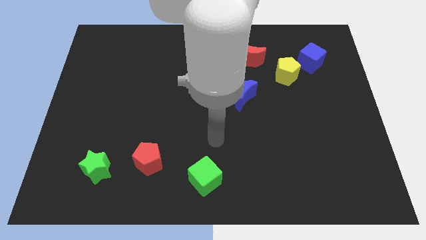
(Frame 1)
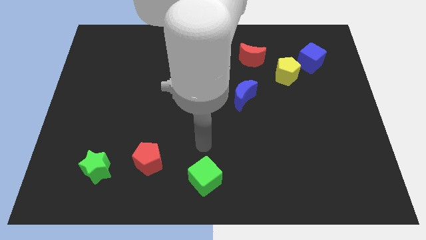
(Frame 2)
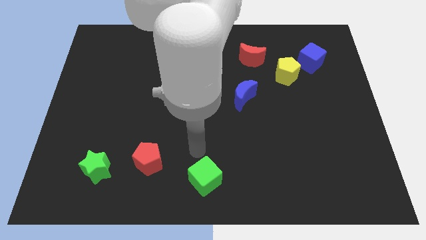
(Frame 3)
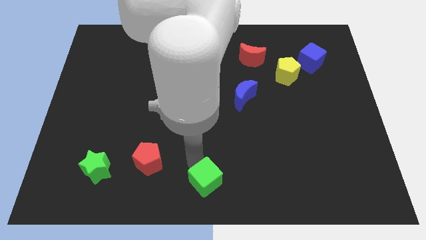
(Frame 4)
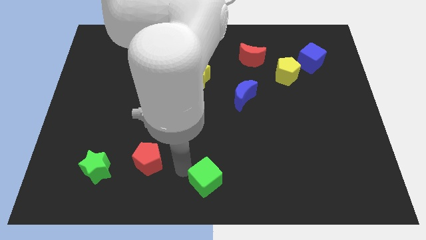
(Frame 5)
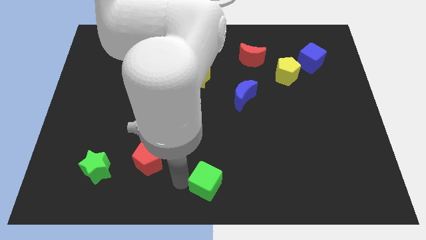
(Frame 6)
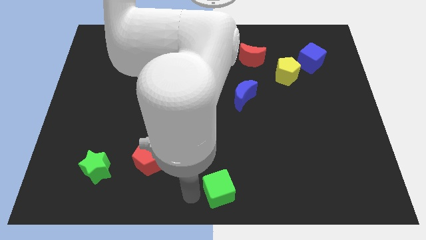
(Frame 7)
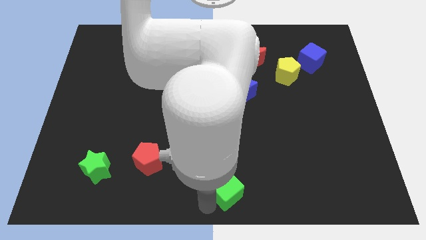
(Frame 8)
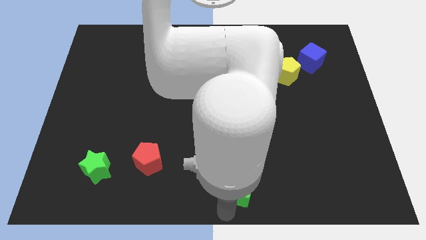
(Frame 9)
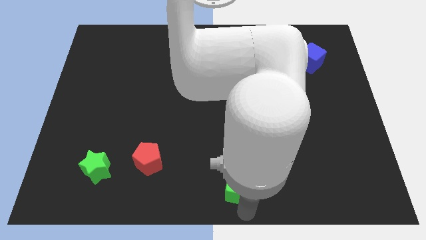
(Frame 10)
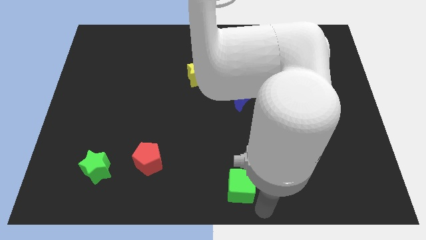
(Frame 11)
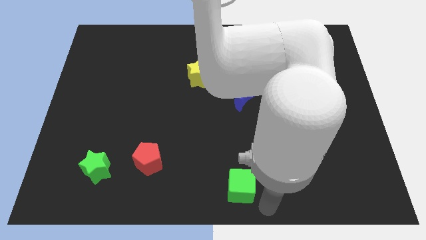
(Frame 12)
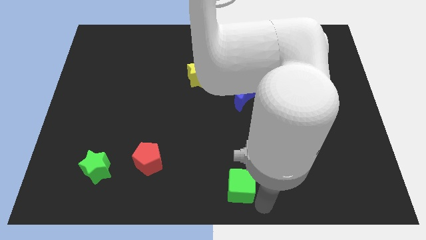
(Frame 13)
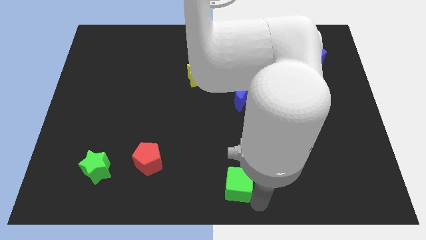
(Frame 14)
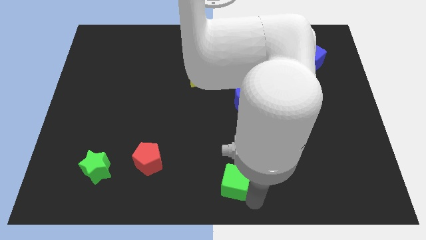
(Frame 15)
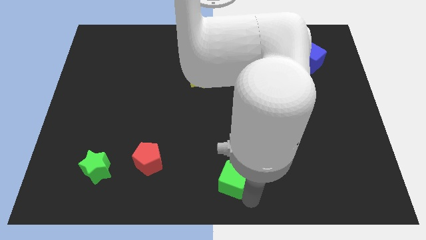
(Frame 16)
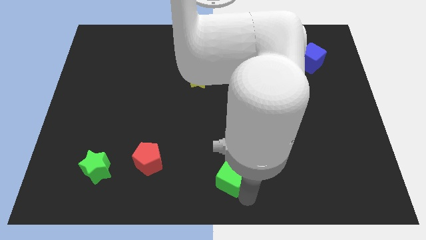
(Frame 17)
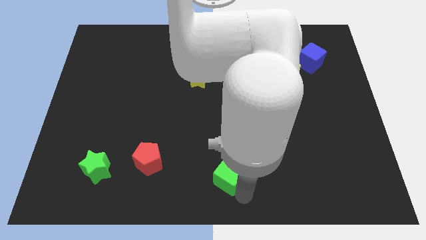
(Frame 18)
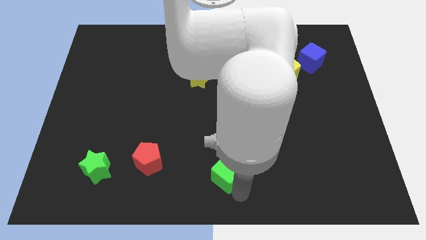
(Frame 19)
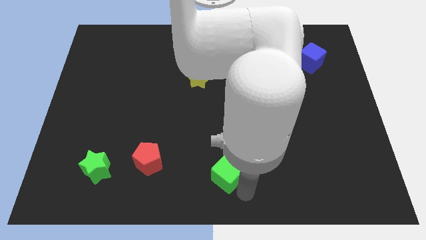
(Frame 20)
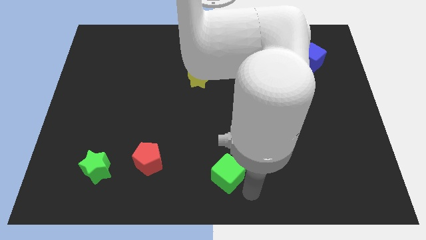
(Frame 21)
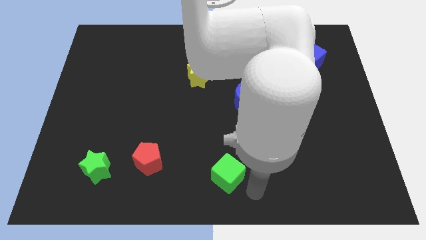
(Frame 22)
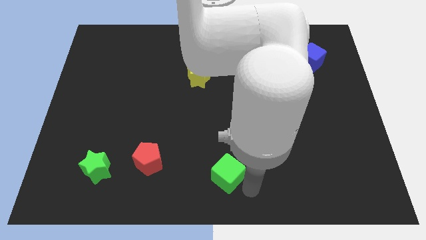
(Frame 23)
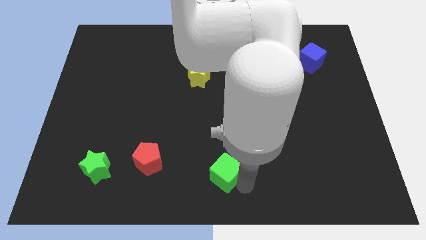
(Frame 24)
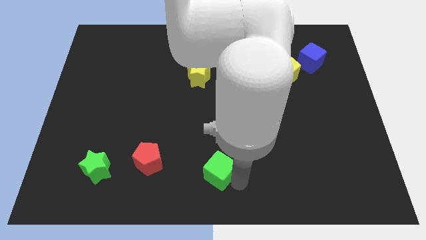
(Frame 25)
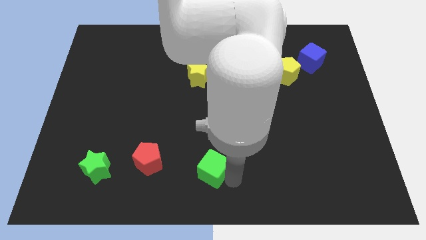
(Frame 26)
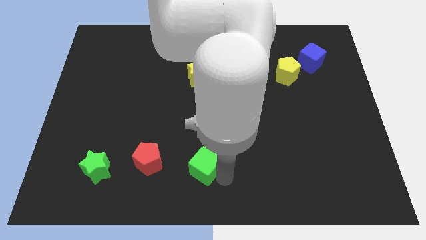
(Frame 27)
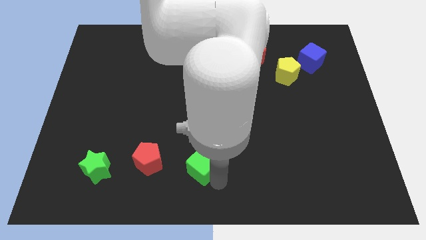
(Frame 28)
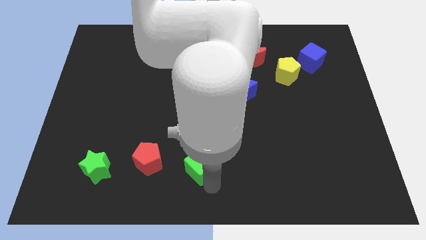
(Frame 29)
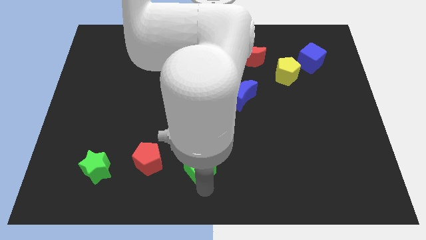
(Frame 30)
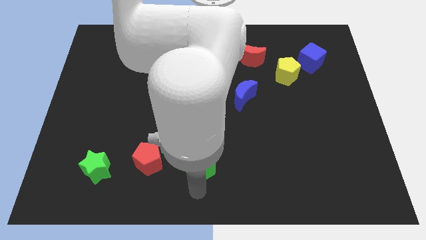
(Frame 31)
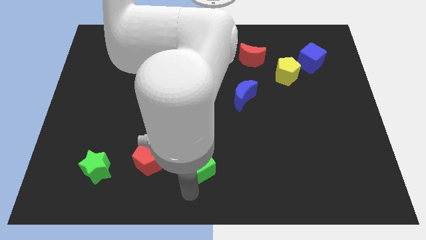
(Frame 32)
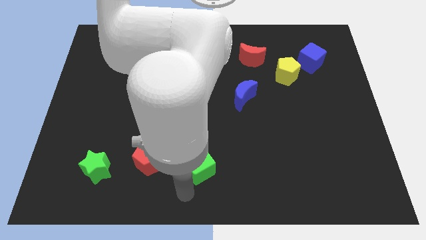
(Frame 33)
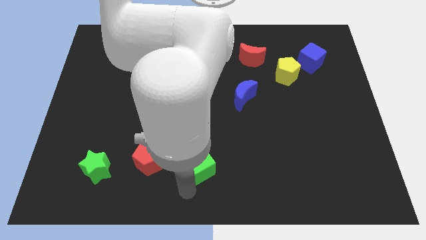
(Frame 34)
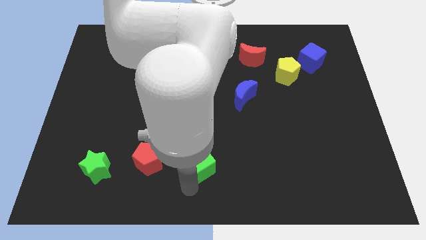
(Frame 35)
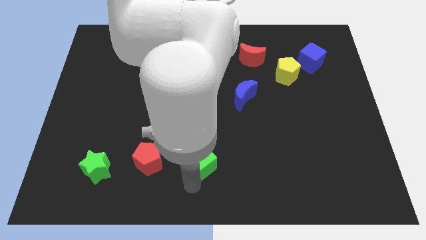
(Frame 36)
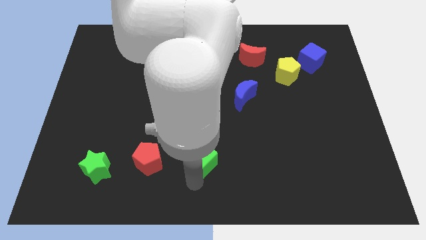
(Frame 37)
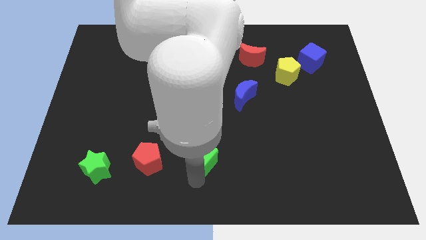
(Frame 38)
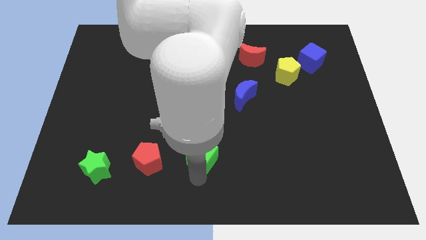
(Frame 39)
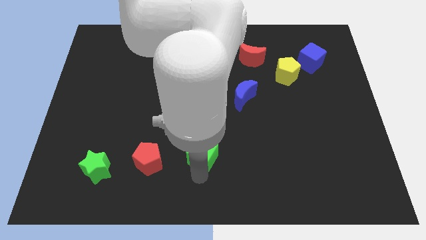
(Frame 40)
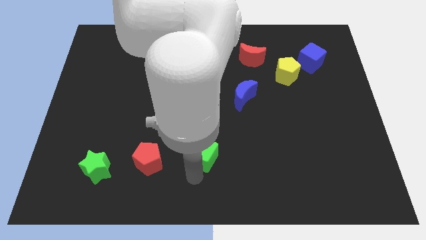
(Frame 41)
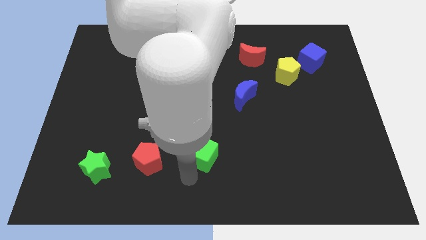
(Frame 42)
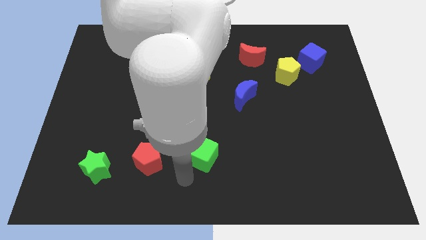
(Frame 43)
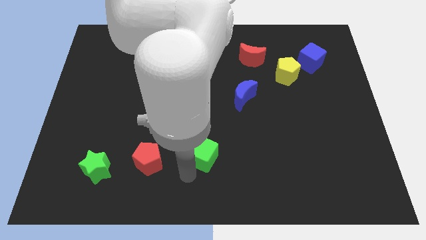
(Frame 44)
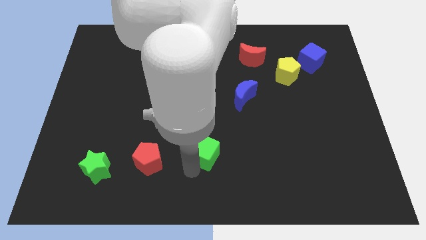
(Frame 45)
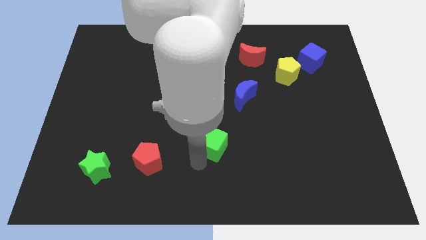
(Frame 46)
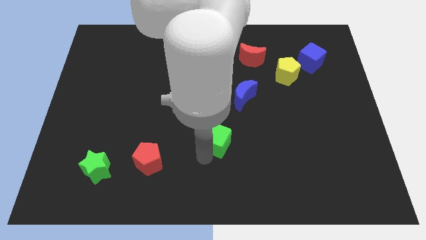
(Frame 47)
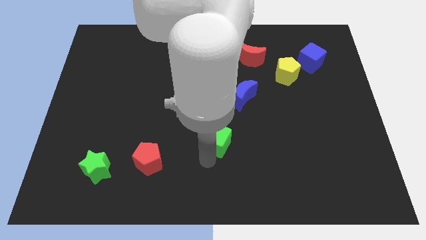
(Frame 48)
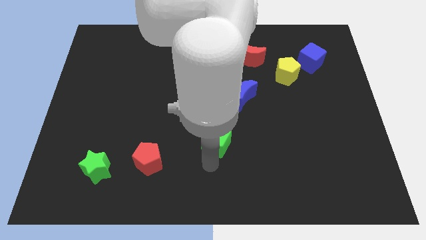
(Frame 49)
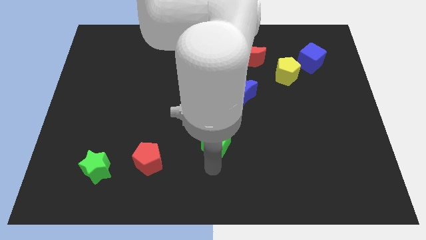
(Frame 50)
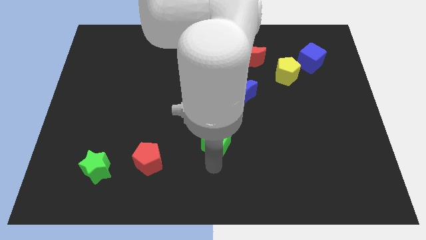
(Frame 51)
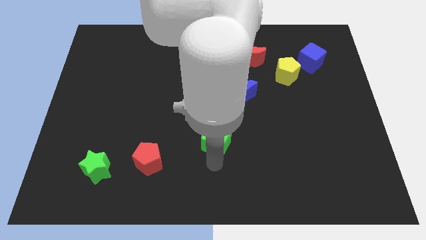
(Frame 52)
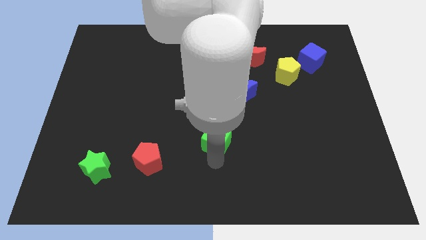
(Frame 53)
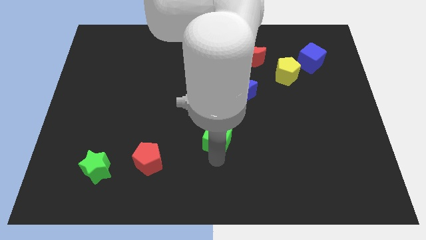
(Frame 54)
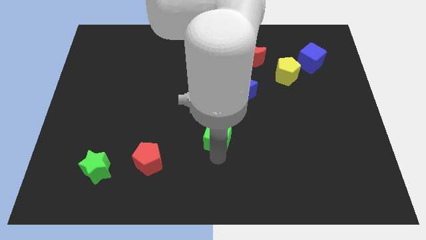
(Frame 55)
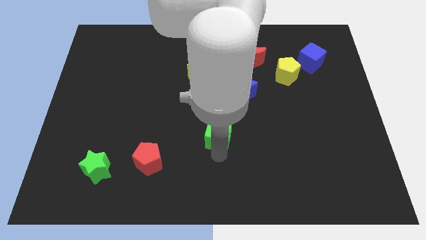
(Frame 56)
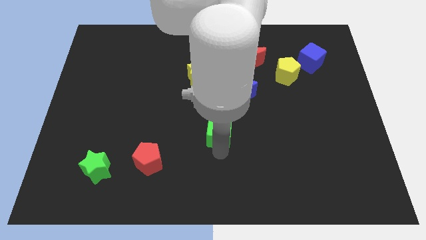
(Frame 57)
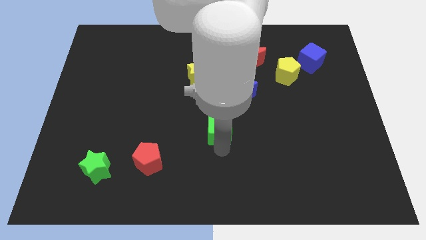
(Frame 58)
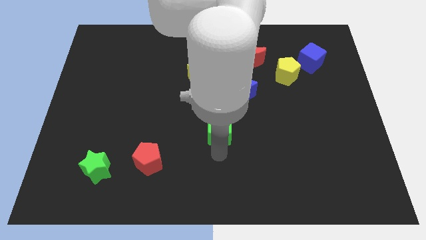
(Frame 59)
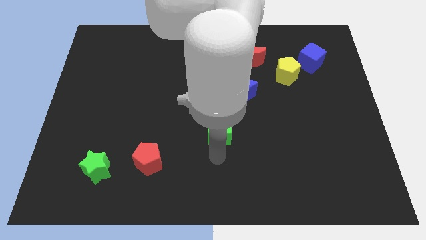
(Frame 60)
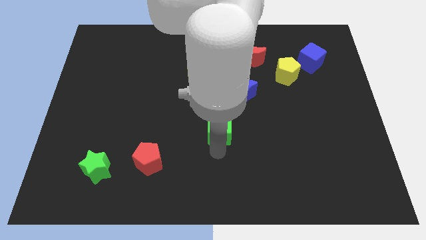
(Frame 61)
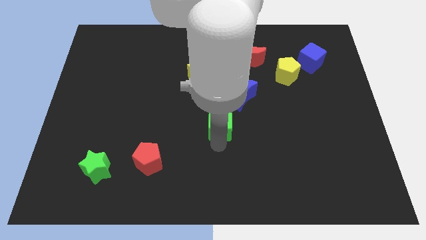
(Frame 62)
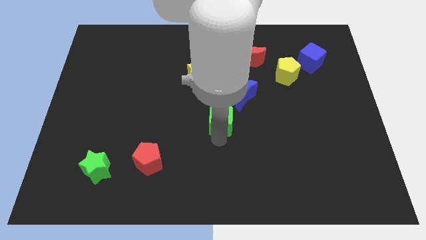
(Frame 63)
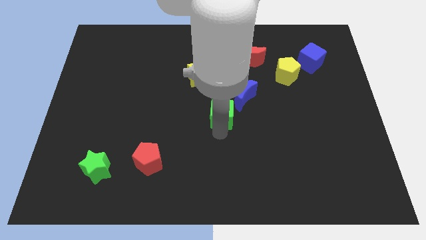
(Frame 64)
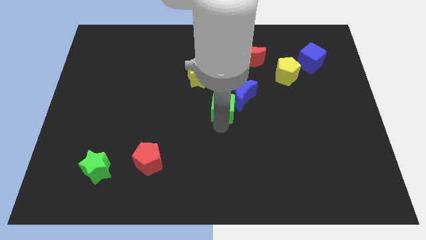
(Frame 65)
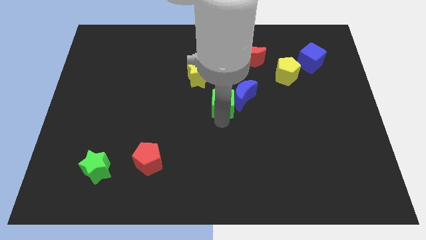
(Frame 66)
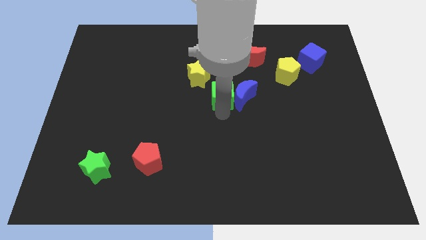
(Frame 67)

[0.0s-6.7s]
slide the green cube up

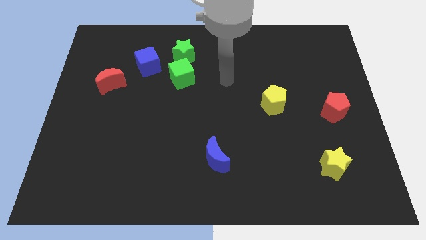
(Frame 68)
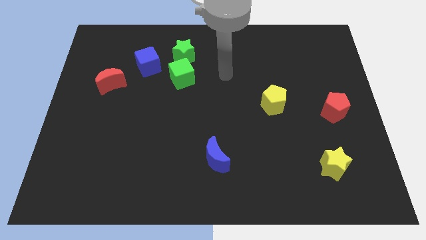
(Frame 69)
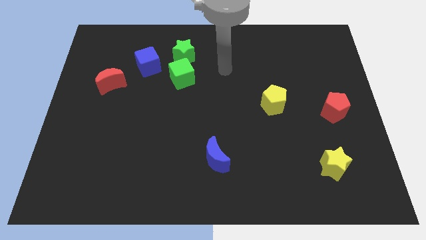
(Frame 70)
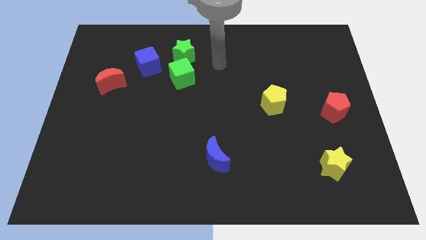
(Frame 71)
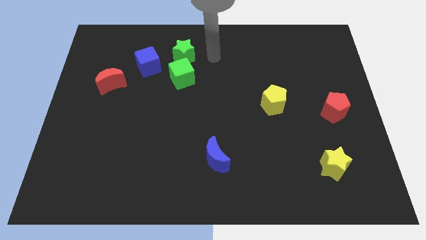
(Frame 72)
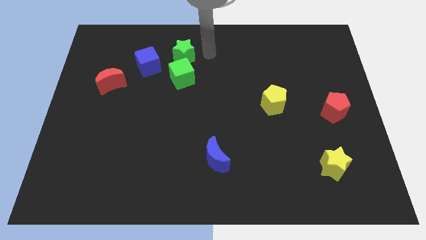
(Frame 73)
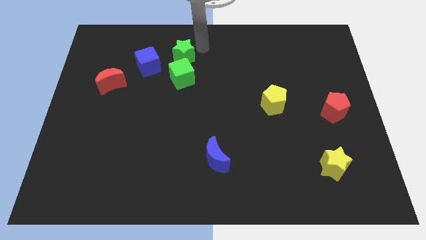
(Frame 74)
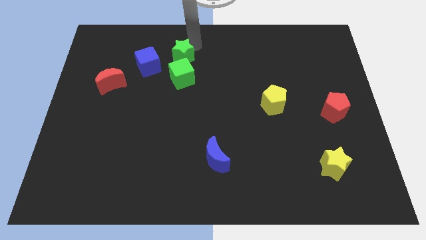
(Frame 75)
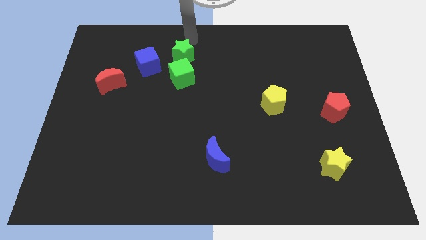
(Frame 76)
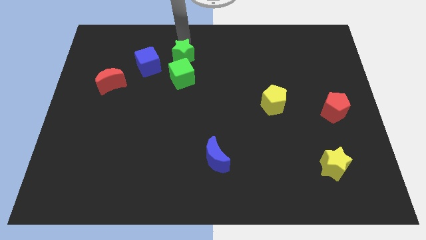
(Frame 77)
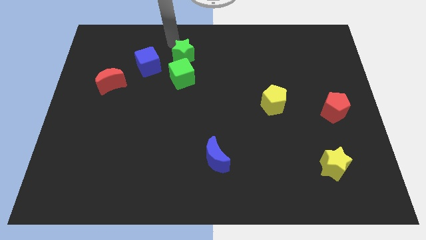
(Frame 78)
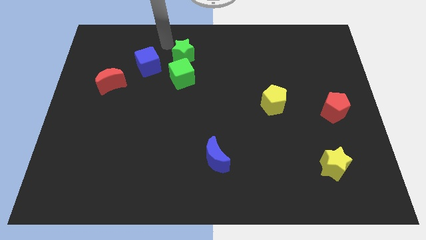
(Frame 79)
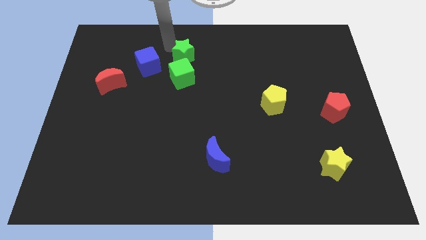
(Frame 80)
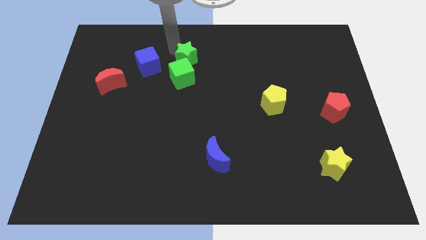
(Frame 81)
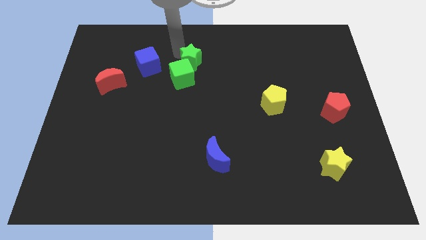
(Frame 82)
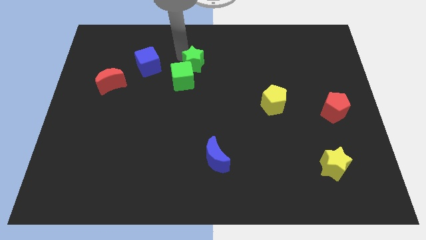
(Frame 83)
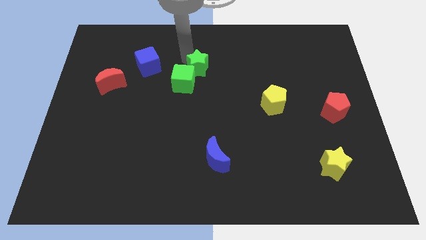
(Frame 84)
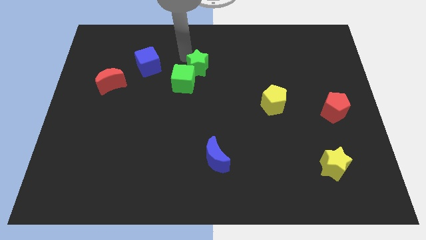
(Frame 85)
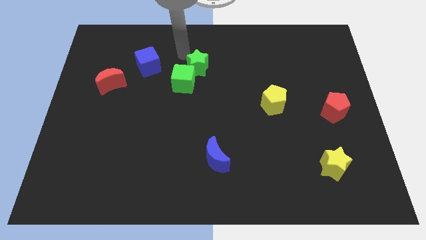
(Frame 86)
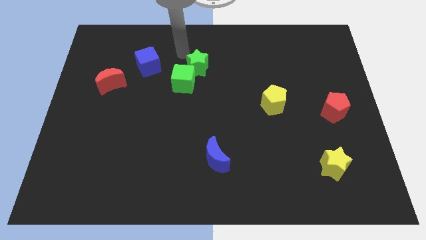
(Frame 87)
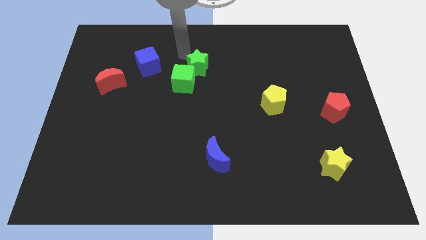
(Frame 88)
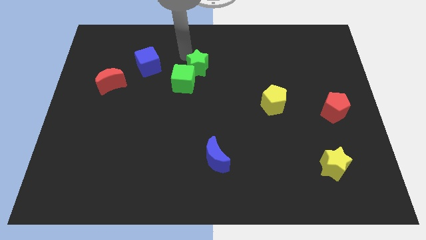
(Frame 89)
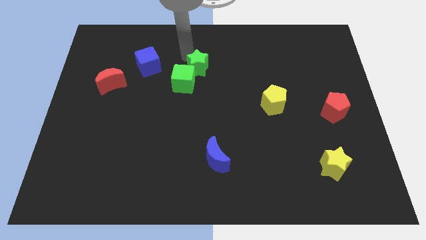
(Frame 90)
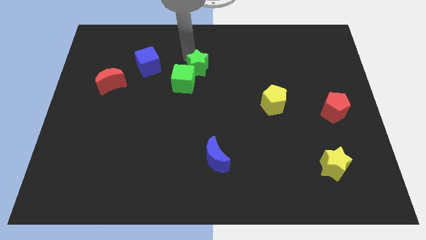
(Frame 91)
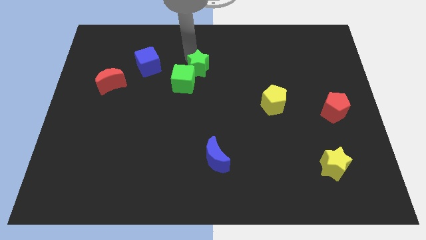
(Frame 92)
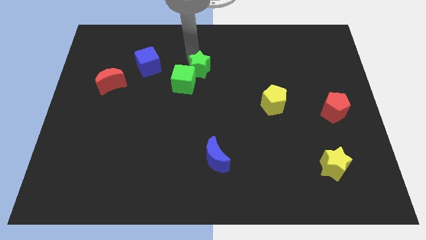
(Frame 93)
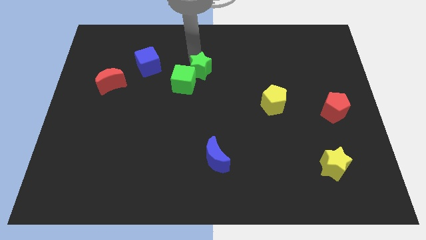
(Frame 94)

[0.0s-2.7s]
slightly push the green star downwards and to the right diagonally
